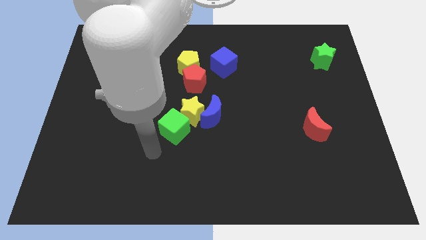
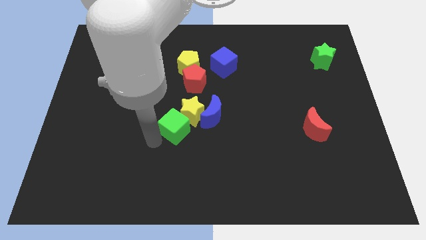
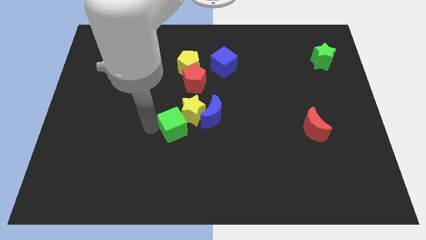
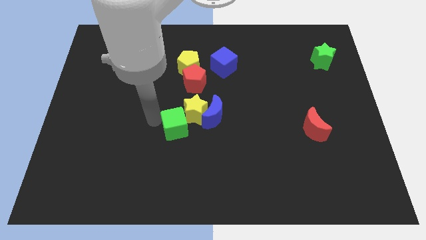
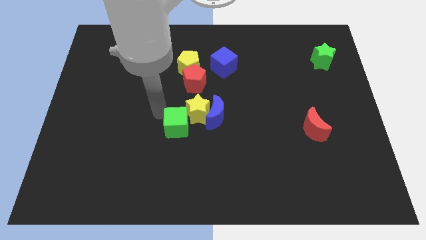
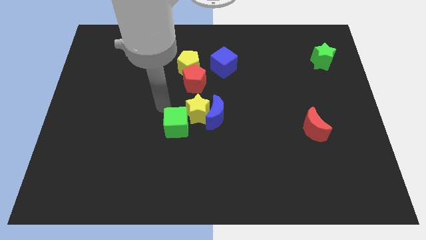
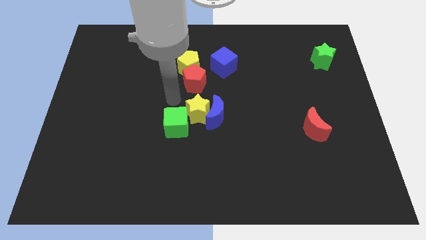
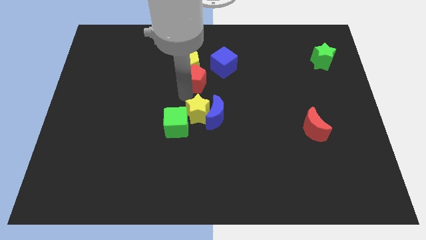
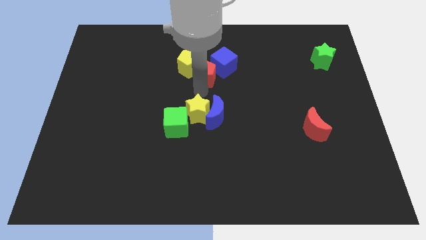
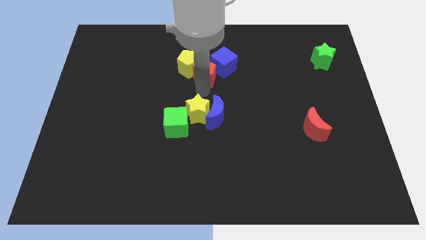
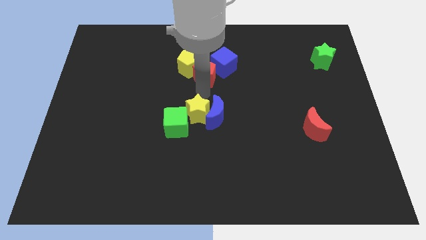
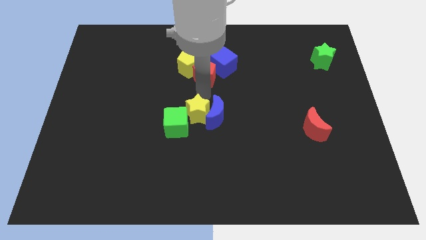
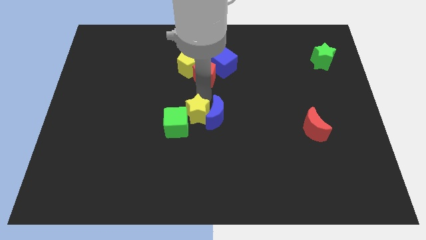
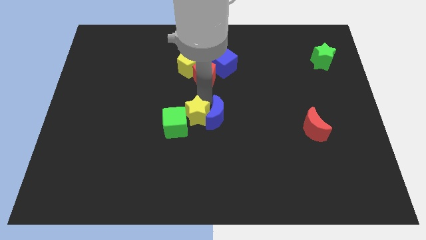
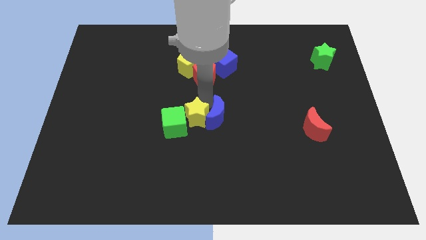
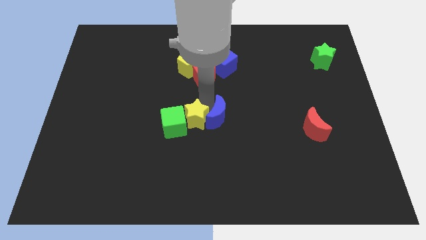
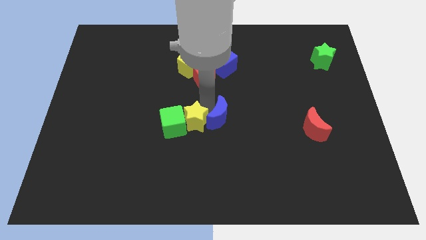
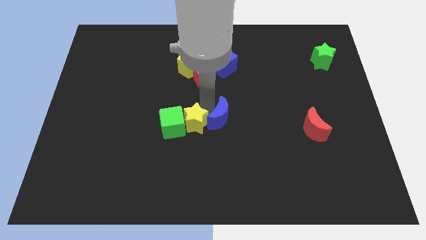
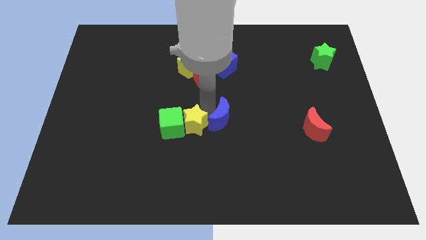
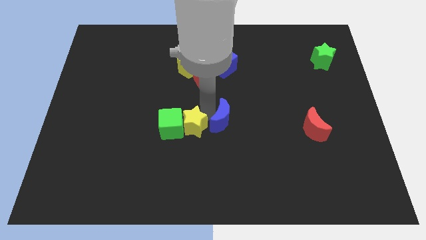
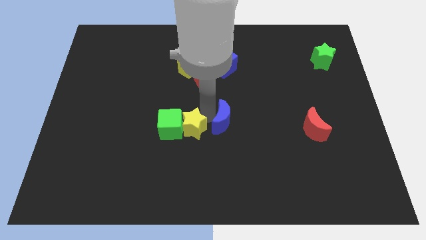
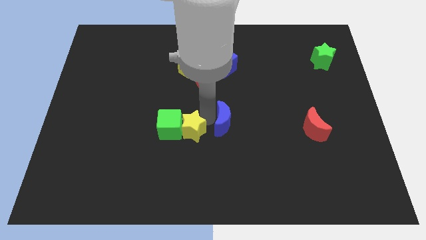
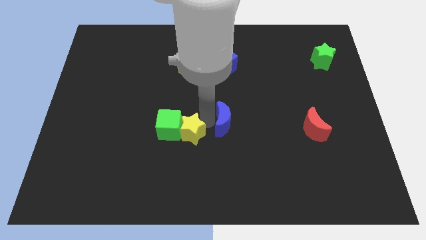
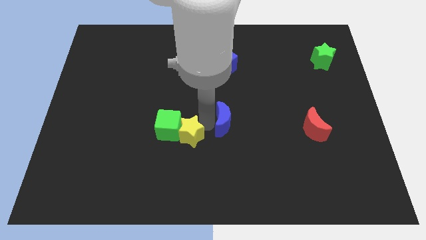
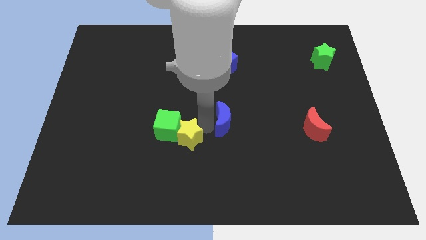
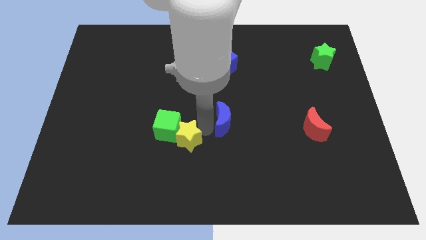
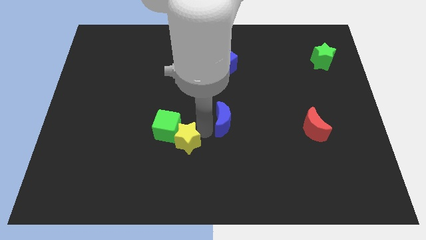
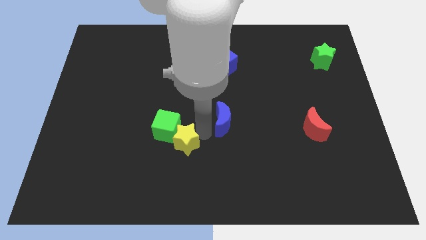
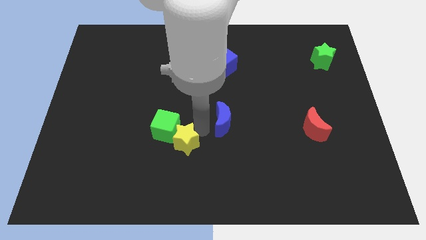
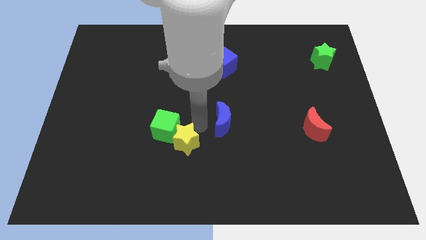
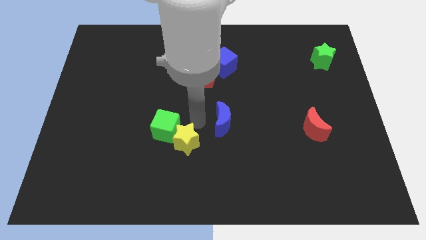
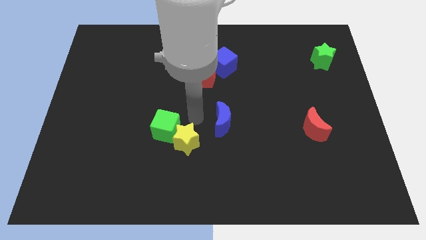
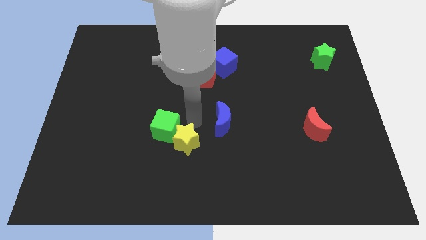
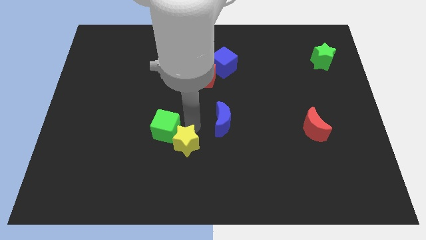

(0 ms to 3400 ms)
move the yellow star away from the group

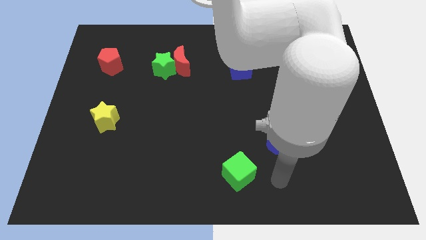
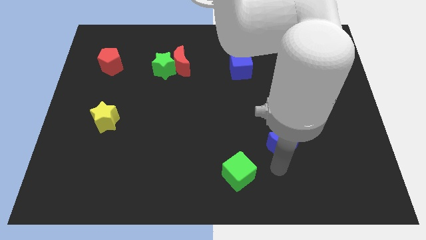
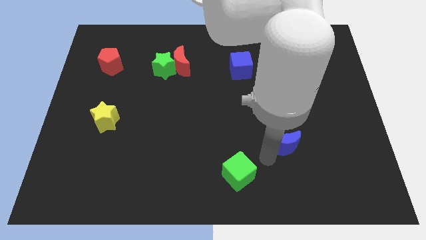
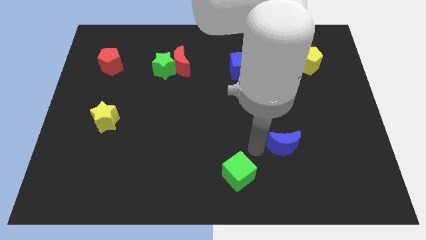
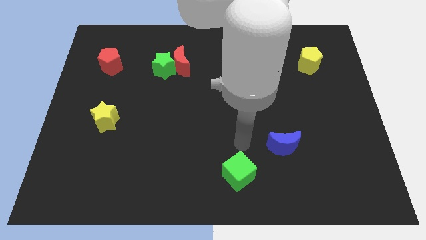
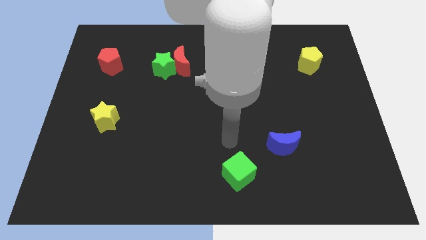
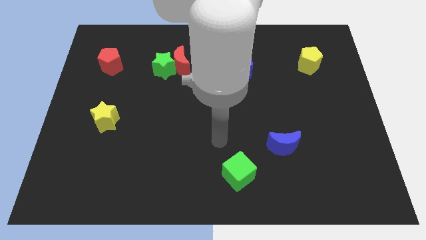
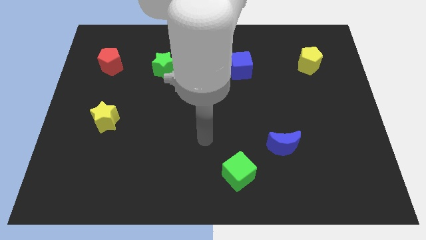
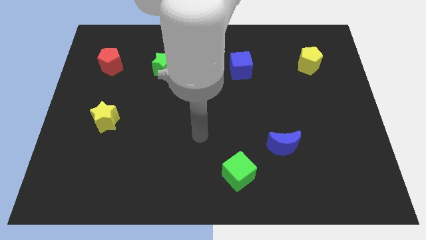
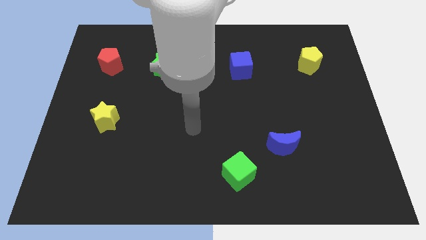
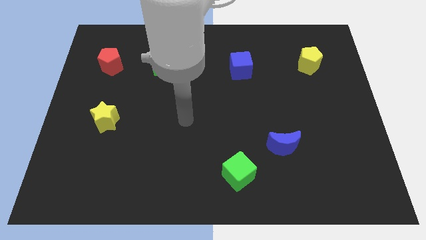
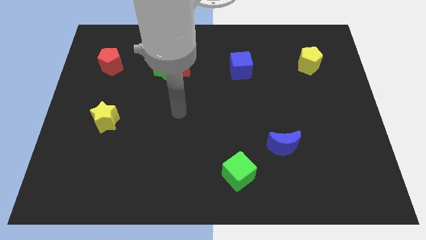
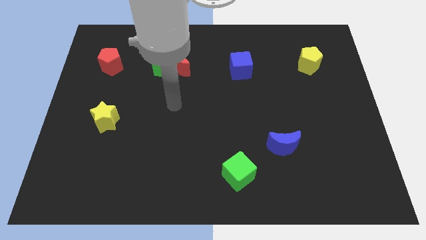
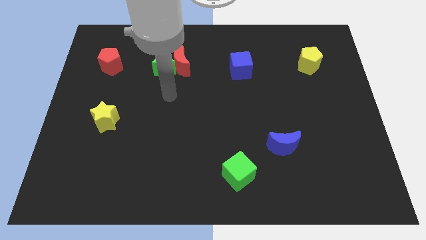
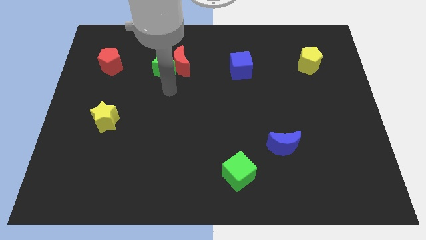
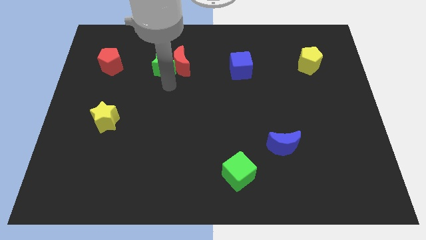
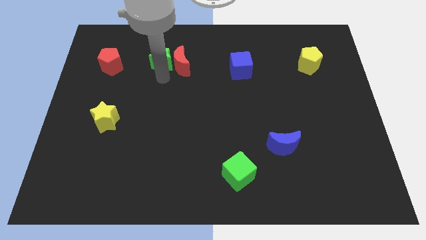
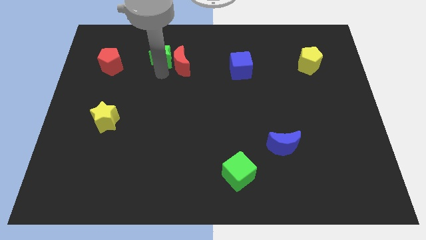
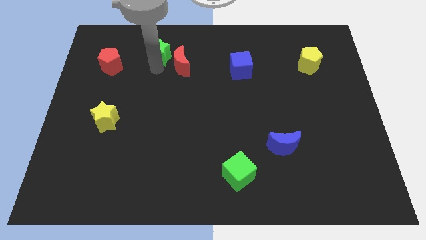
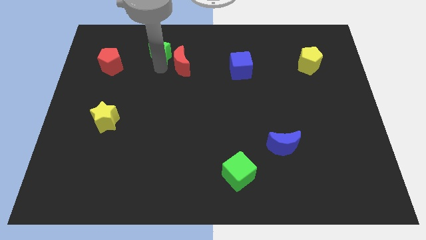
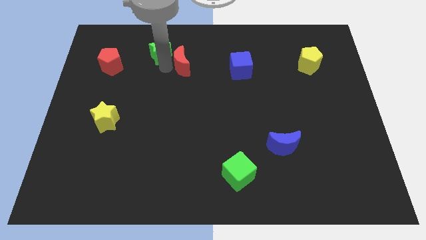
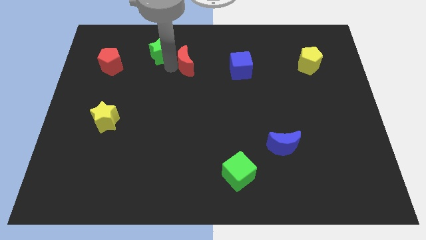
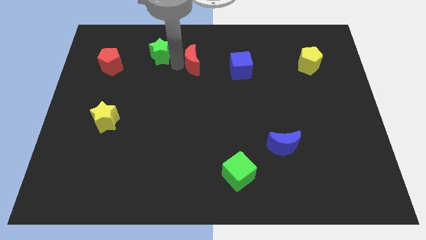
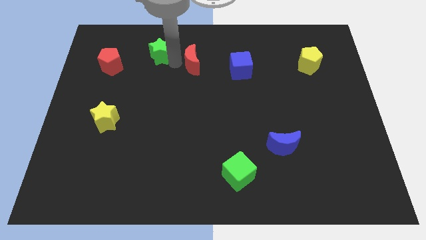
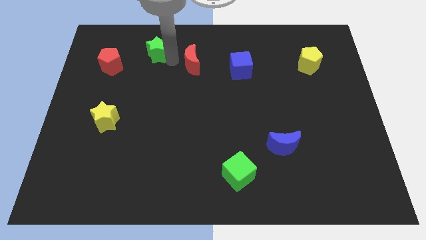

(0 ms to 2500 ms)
separate the red moon from the green star

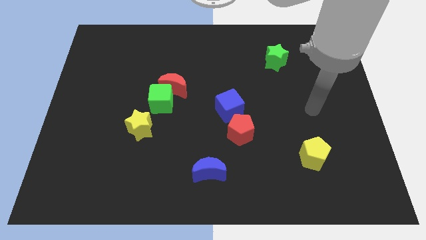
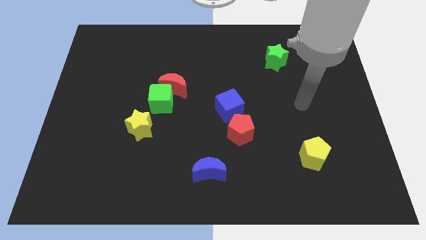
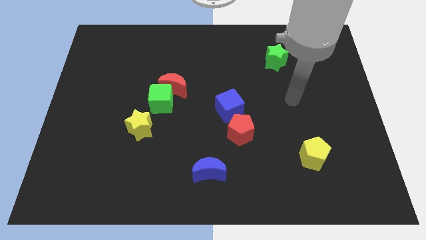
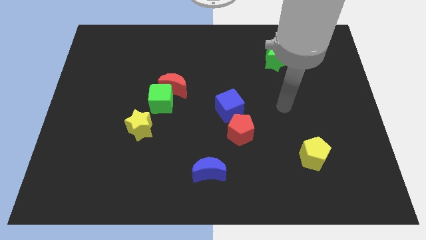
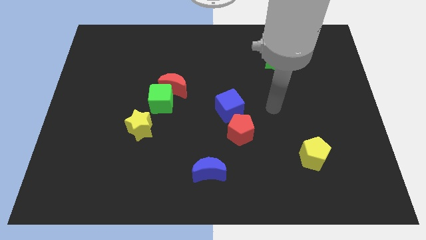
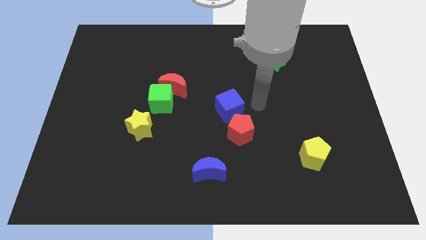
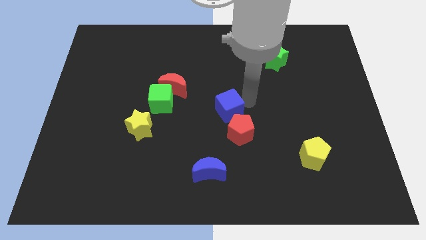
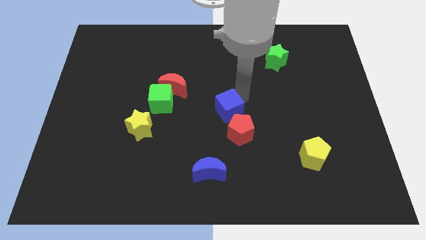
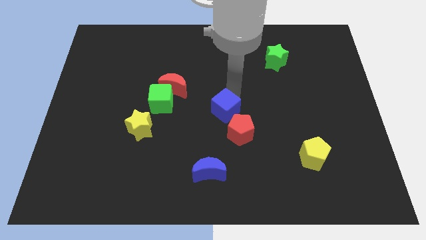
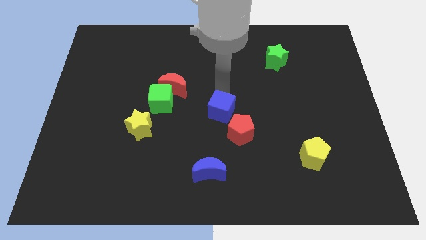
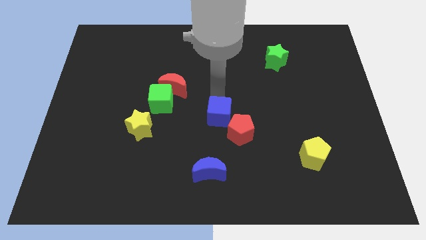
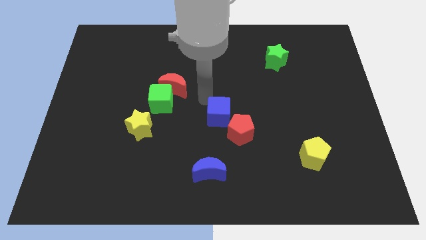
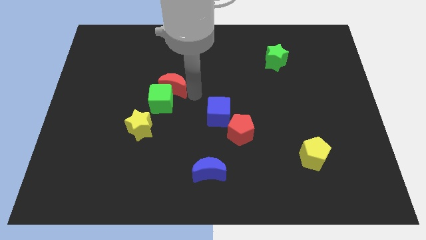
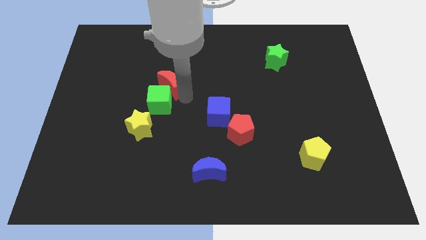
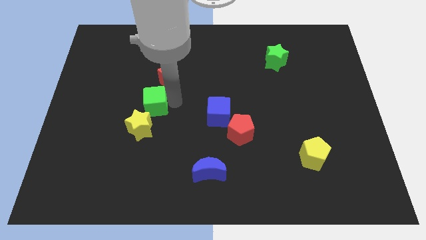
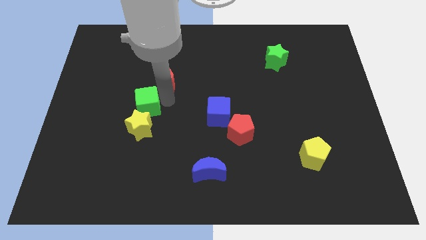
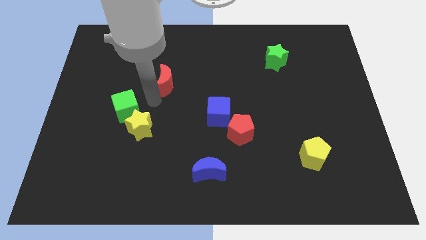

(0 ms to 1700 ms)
pull the red moon apart from the green cube

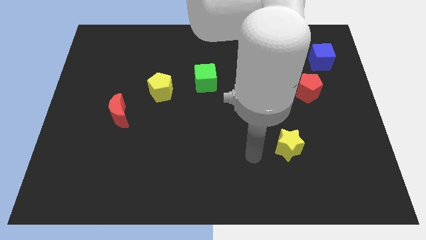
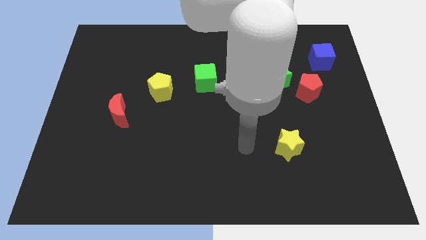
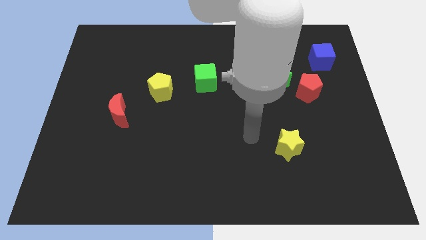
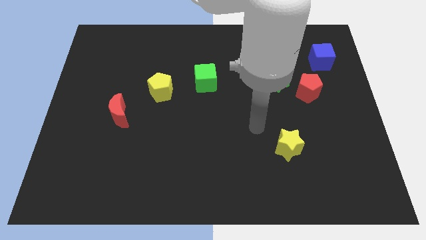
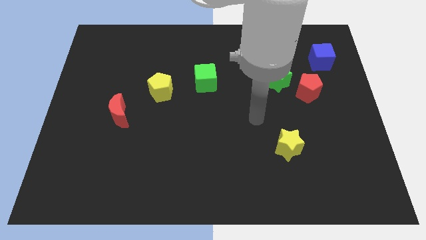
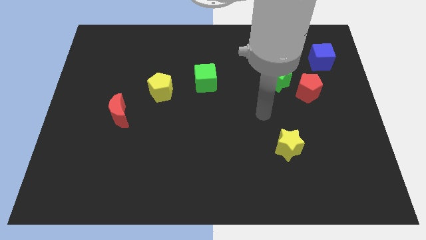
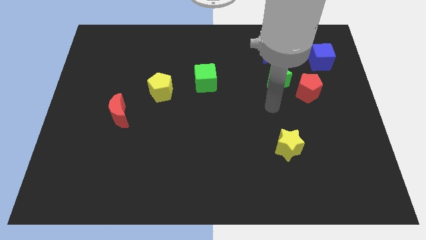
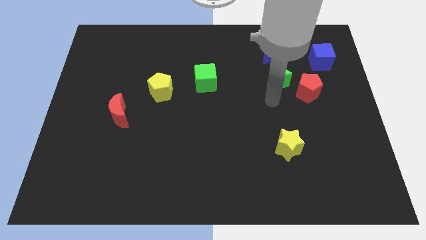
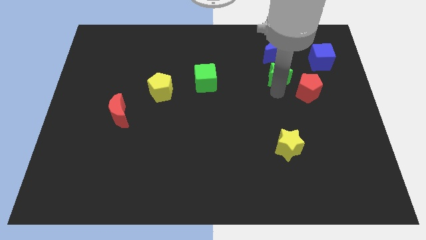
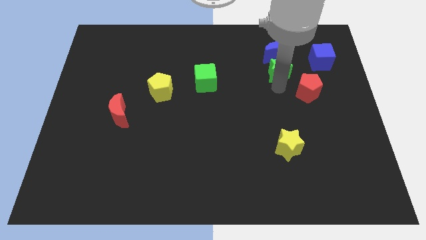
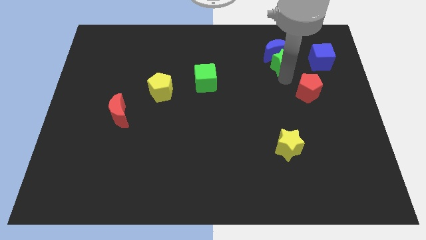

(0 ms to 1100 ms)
pull the red pentagon apart from the green star

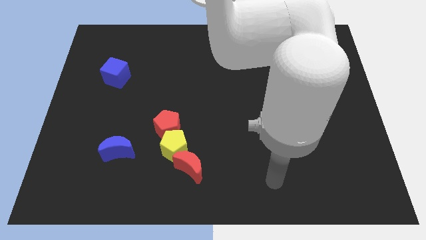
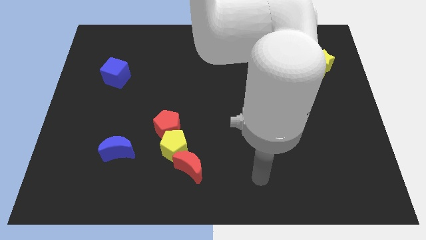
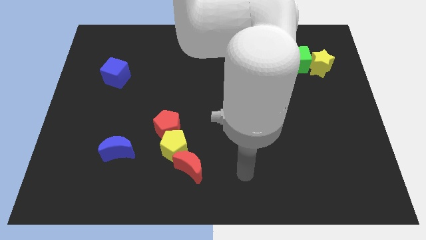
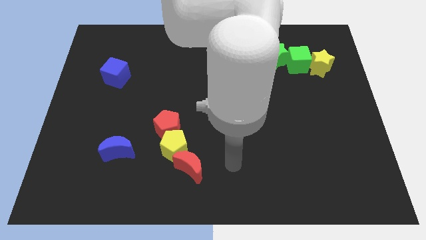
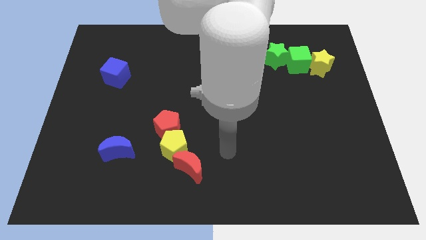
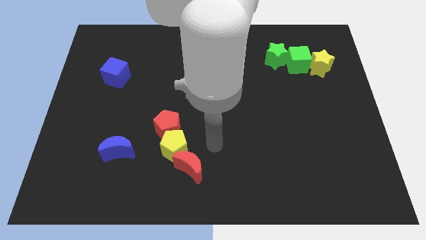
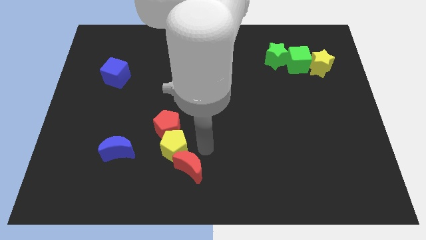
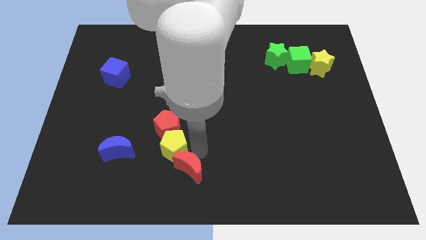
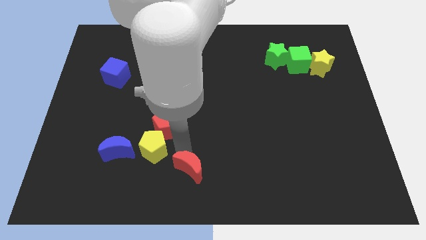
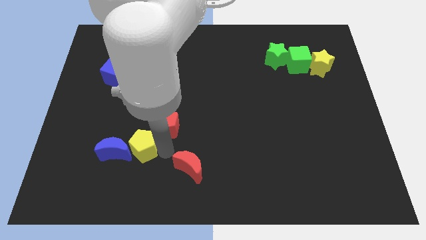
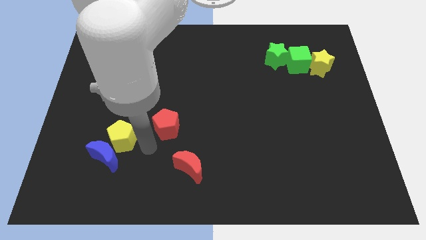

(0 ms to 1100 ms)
move the red pentagon away from the yellow pentagon
